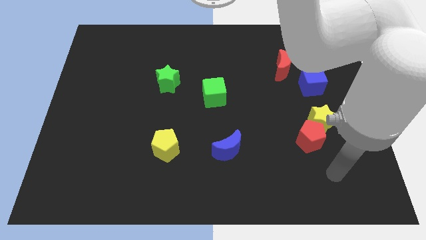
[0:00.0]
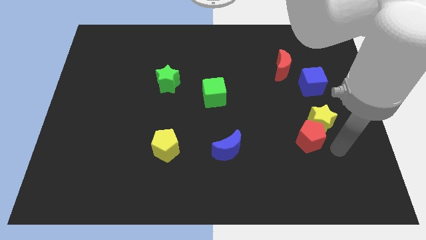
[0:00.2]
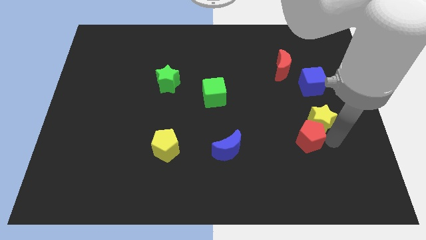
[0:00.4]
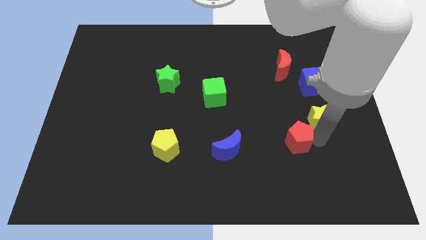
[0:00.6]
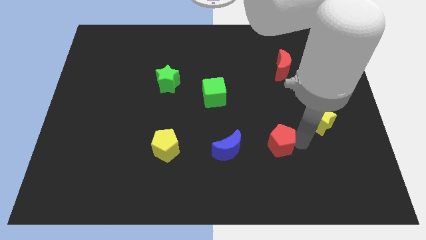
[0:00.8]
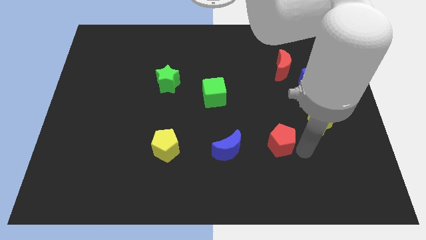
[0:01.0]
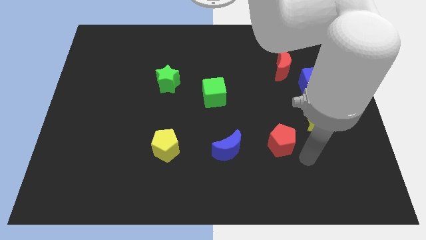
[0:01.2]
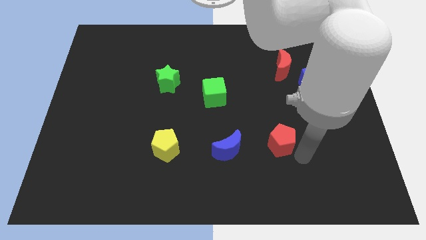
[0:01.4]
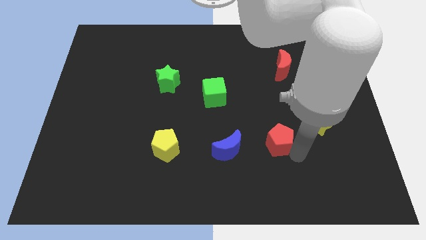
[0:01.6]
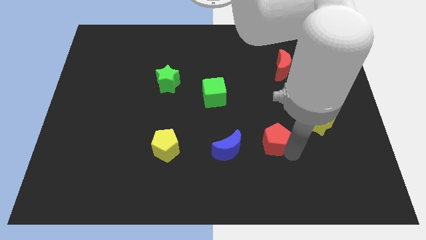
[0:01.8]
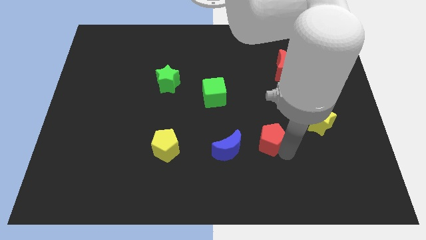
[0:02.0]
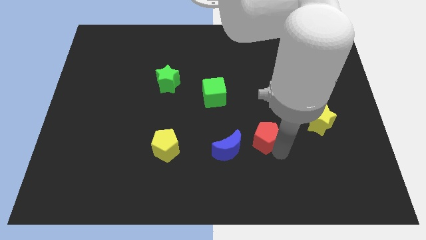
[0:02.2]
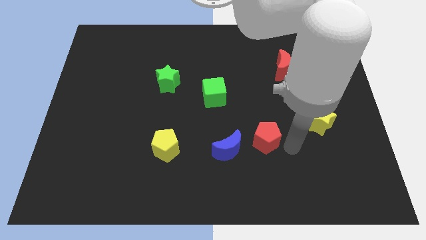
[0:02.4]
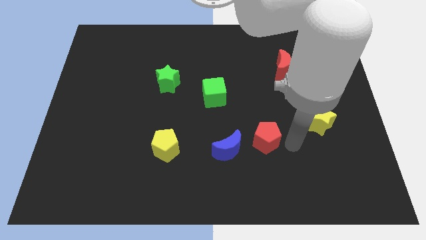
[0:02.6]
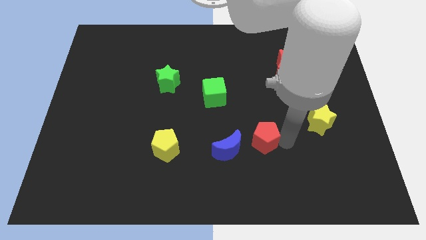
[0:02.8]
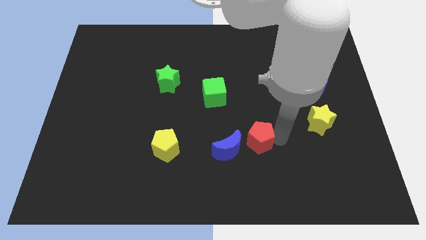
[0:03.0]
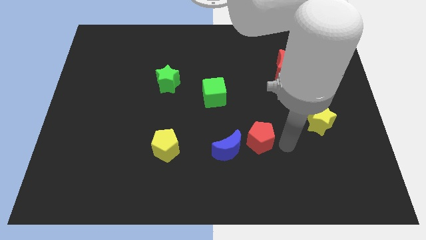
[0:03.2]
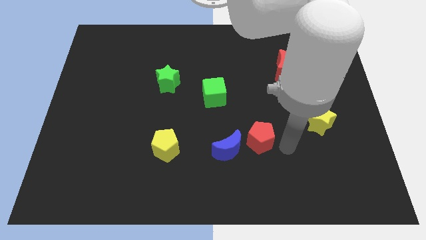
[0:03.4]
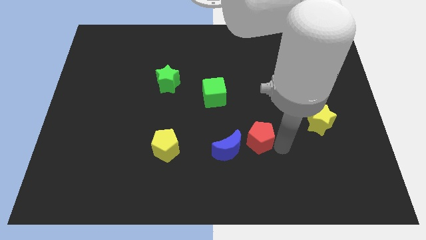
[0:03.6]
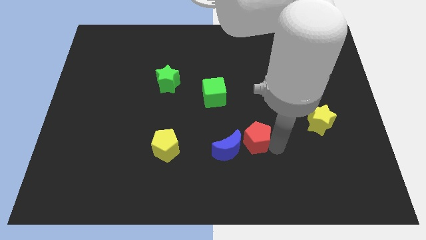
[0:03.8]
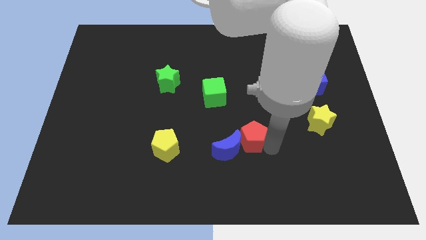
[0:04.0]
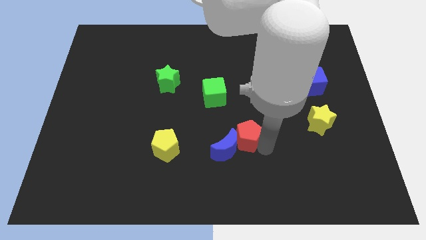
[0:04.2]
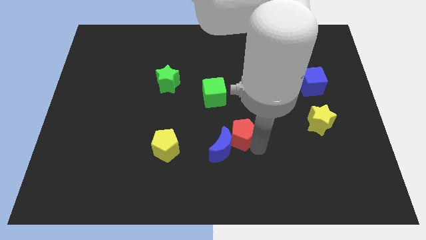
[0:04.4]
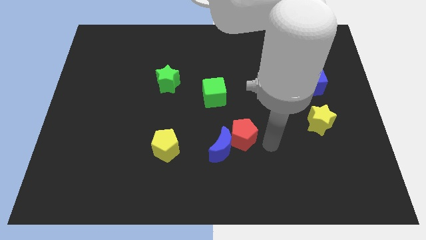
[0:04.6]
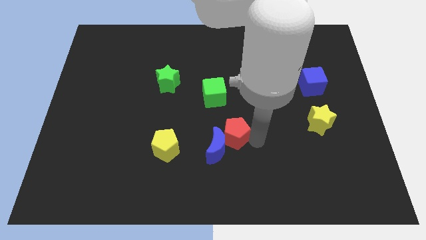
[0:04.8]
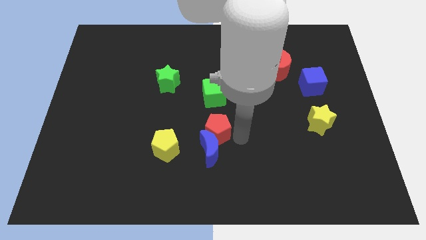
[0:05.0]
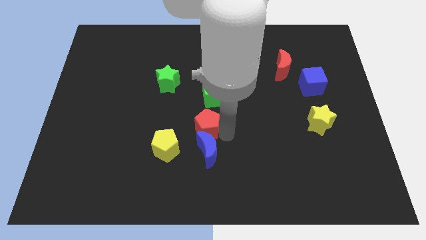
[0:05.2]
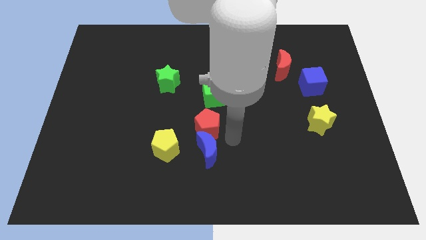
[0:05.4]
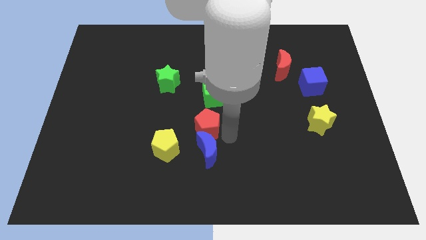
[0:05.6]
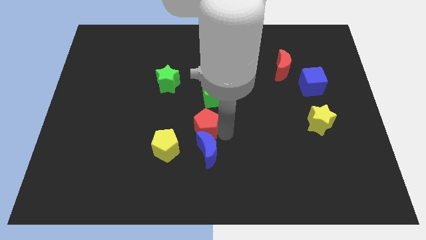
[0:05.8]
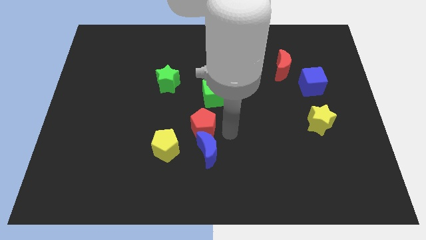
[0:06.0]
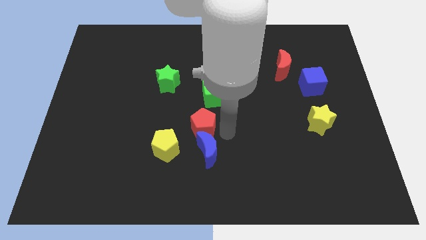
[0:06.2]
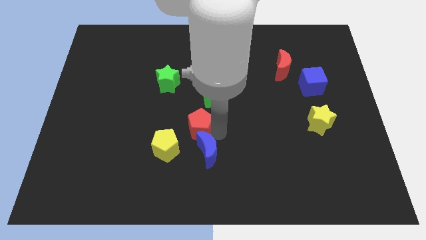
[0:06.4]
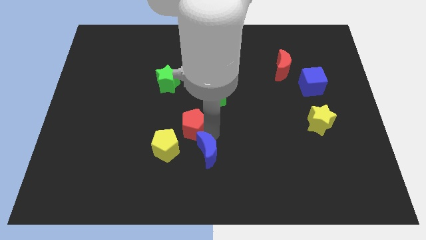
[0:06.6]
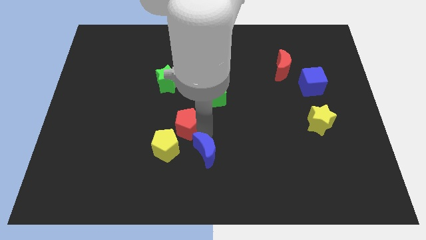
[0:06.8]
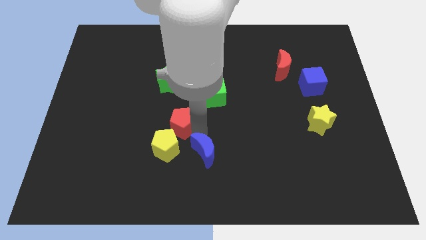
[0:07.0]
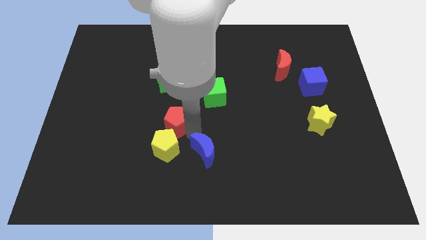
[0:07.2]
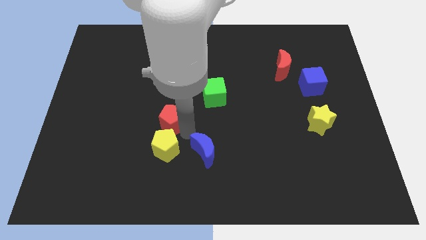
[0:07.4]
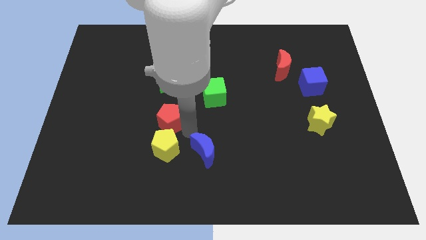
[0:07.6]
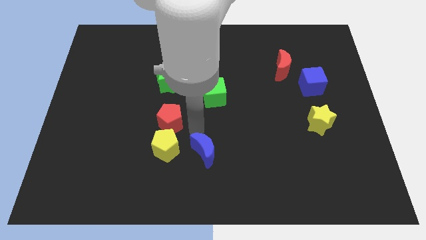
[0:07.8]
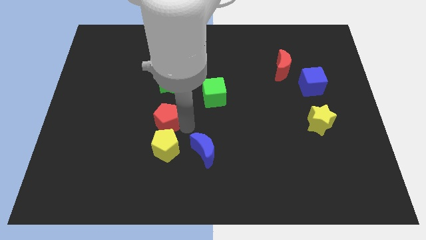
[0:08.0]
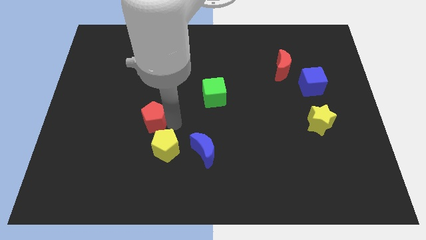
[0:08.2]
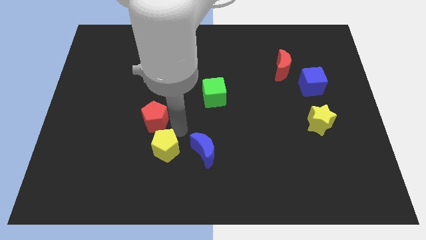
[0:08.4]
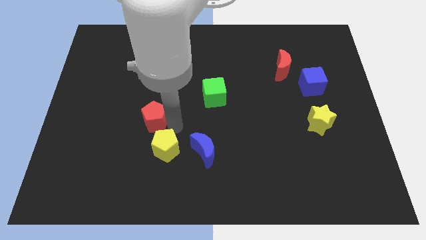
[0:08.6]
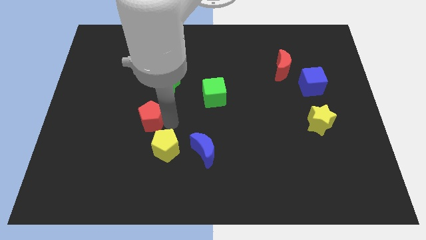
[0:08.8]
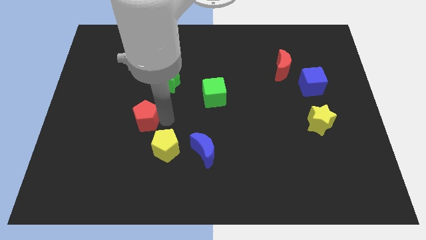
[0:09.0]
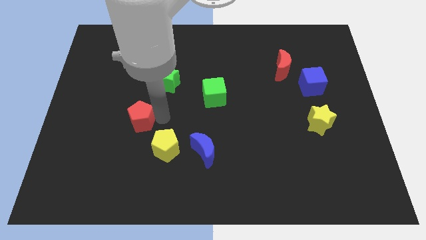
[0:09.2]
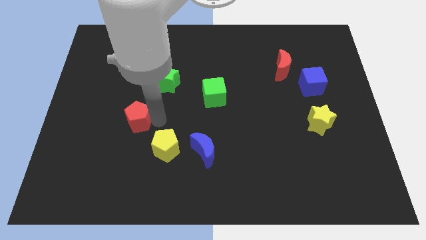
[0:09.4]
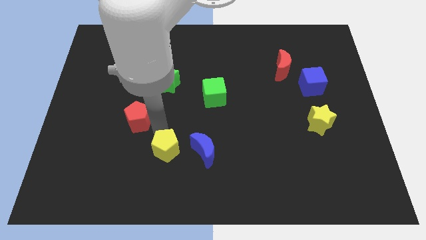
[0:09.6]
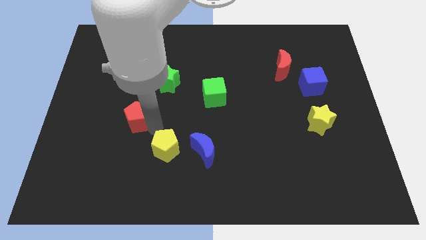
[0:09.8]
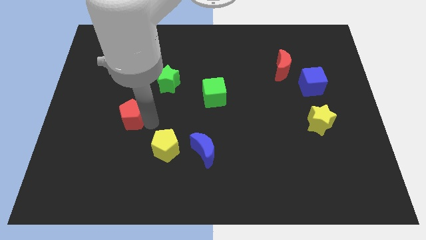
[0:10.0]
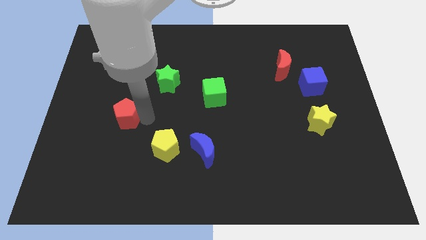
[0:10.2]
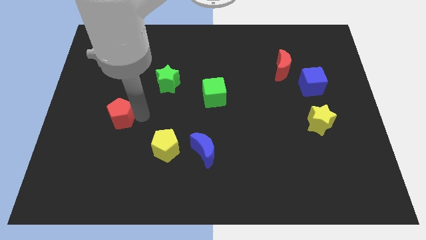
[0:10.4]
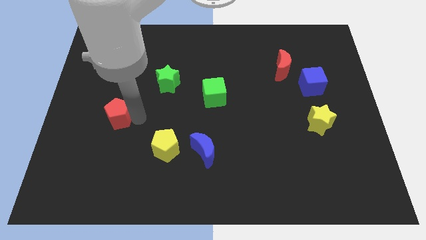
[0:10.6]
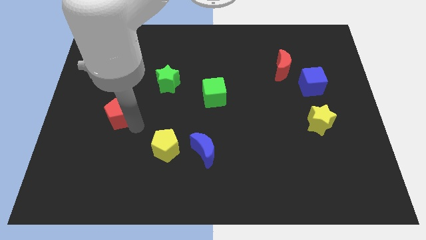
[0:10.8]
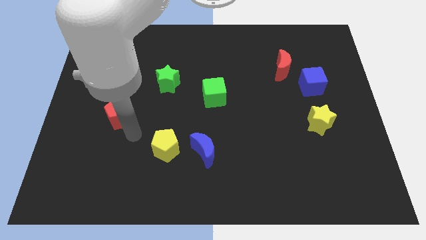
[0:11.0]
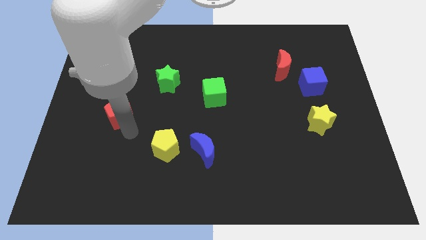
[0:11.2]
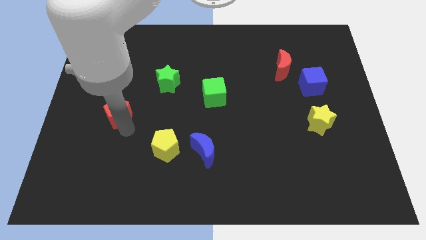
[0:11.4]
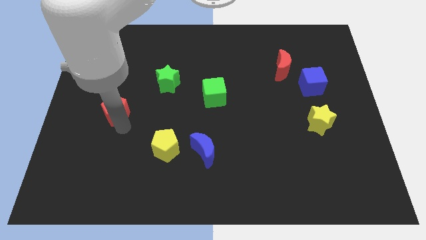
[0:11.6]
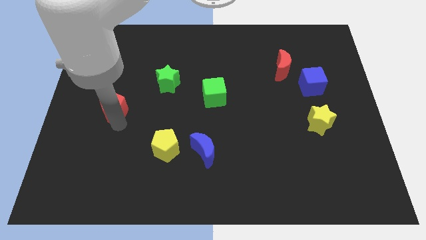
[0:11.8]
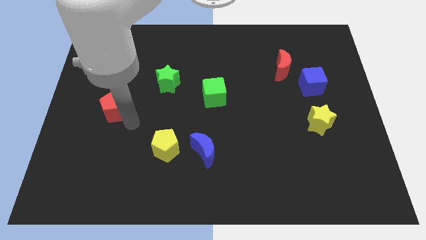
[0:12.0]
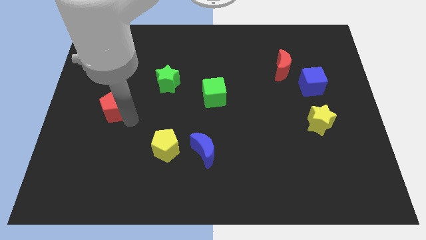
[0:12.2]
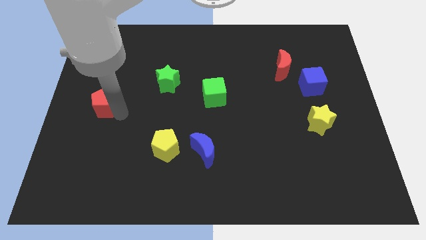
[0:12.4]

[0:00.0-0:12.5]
put the red pentagon to the center left

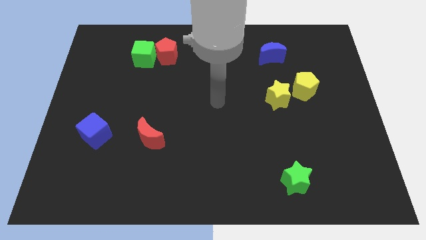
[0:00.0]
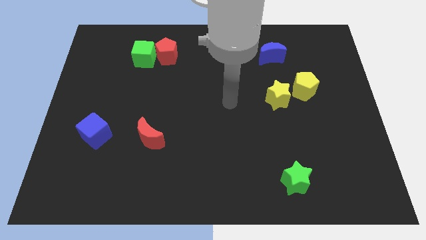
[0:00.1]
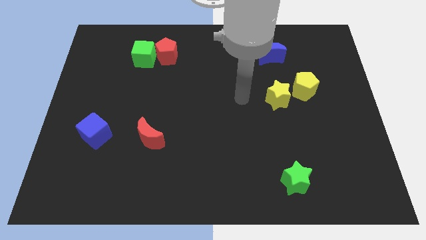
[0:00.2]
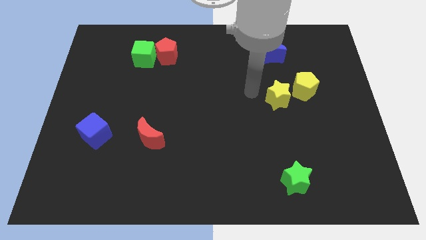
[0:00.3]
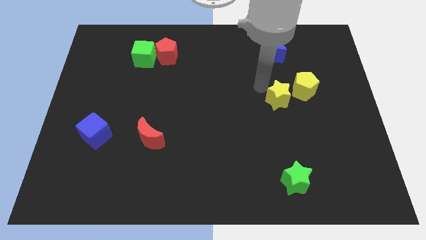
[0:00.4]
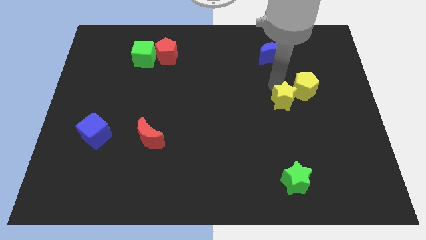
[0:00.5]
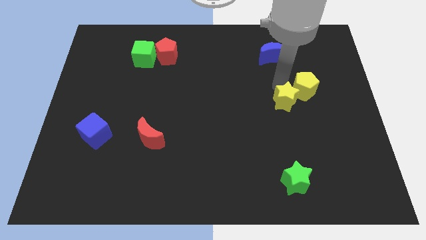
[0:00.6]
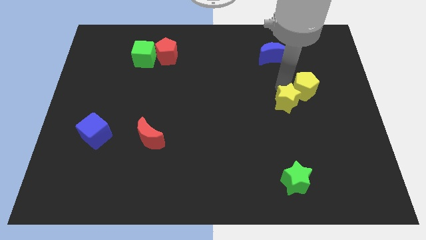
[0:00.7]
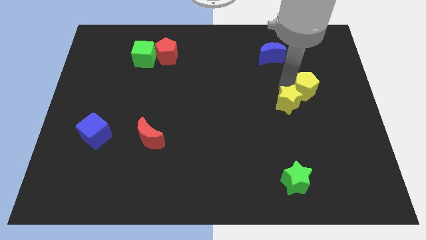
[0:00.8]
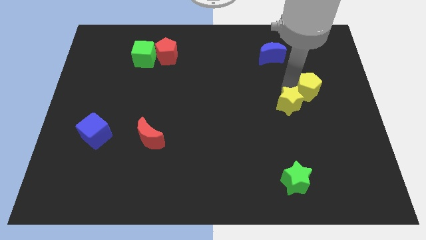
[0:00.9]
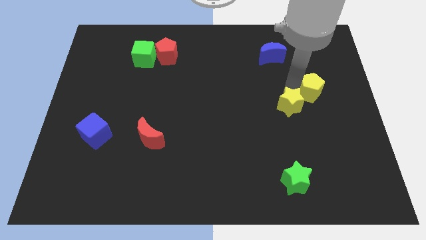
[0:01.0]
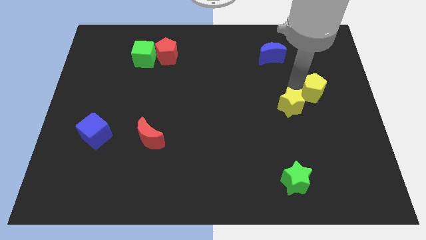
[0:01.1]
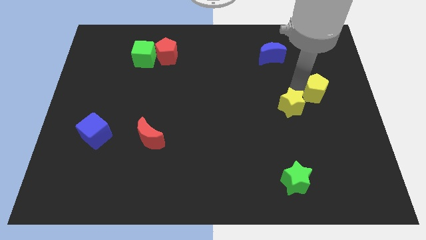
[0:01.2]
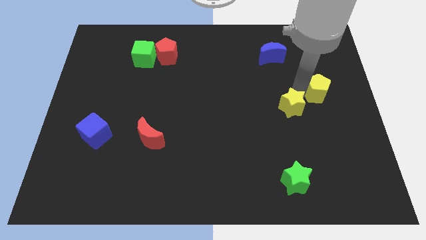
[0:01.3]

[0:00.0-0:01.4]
push the yellow pentagon to the center right
